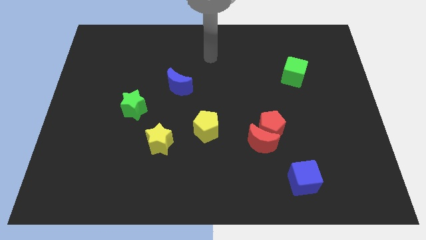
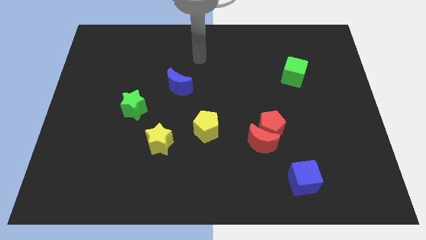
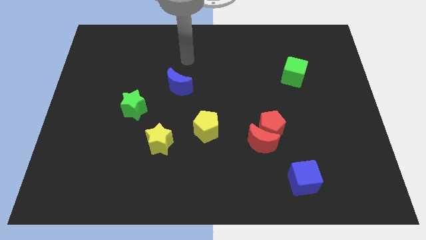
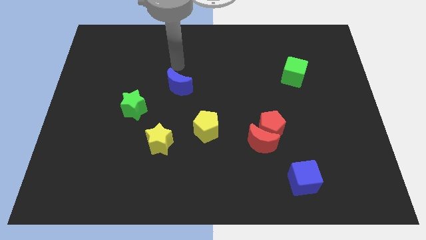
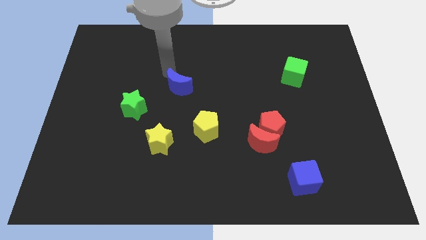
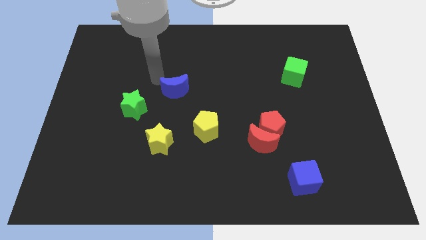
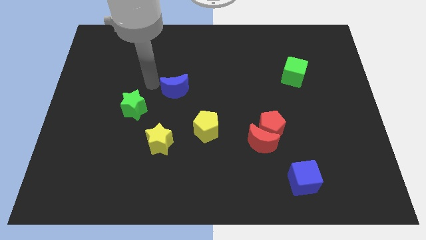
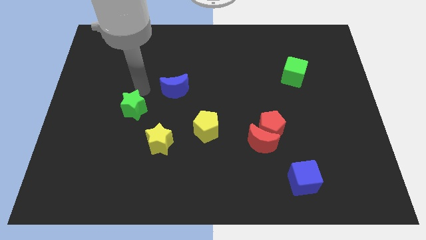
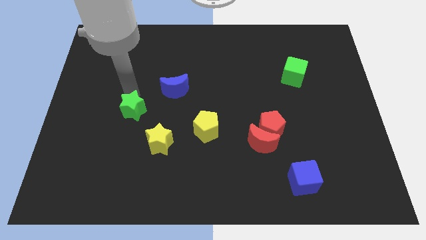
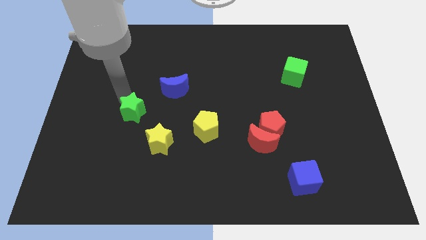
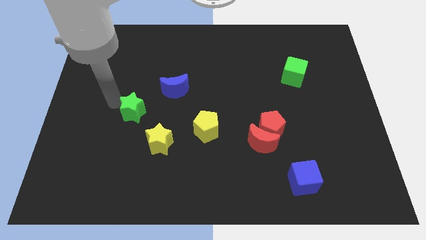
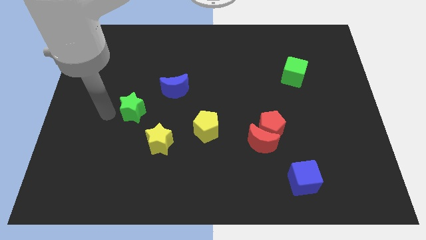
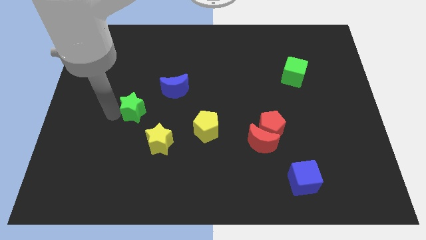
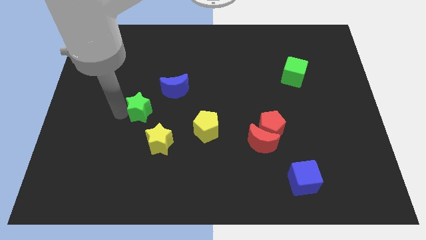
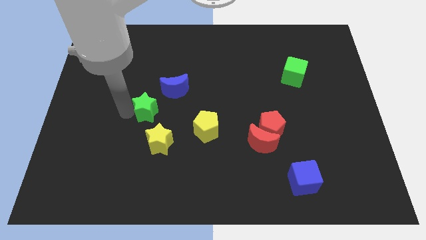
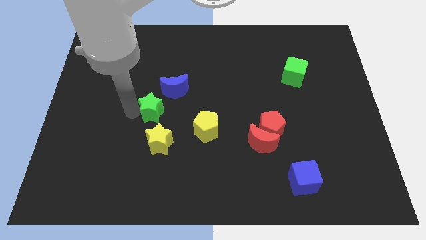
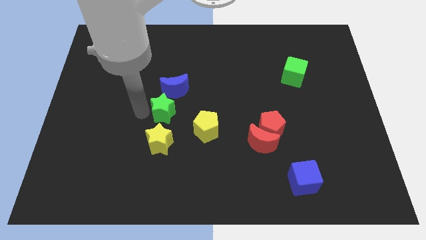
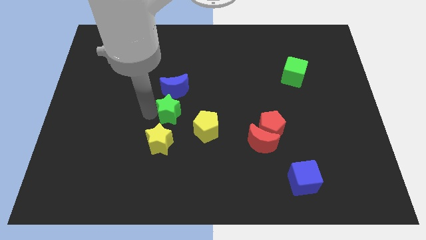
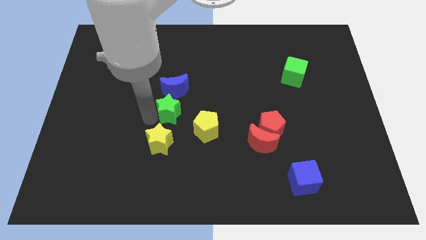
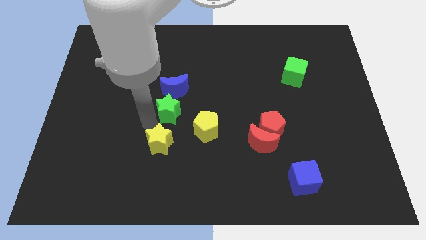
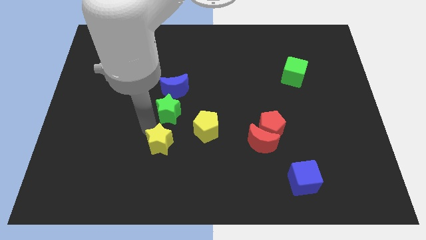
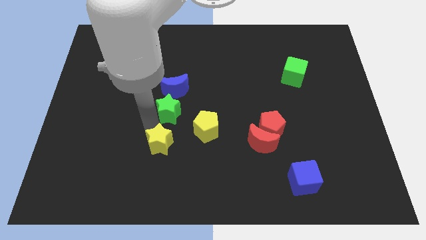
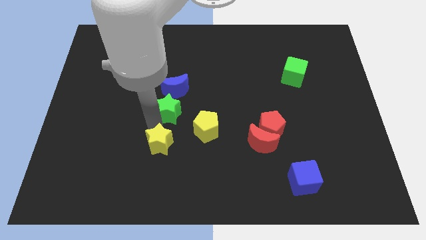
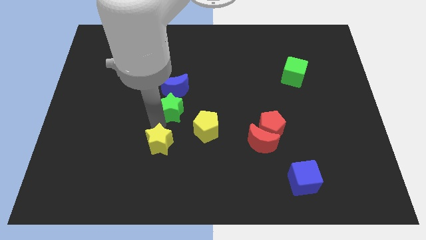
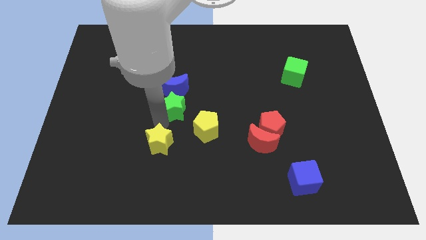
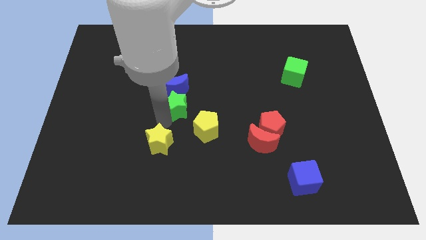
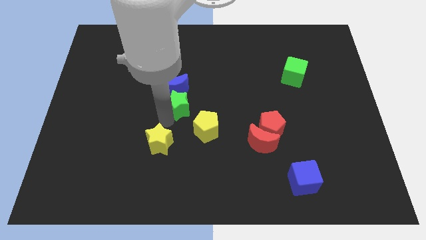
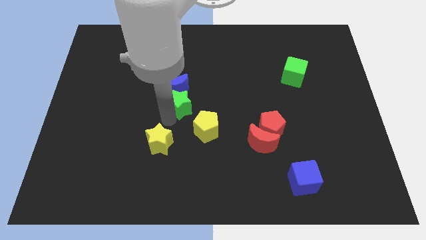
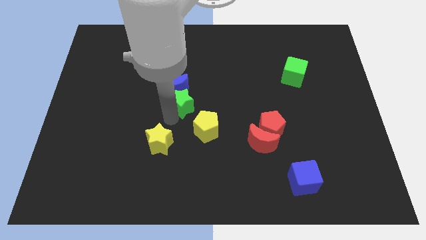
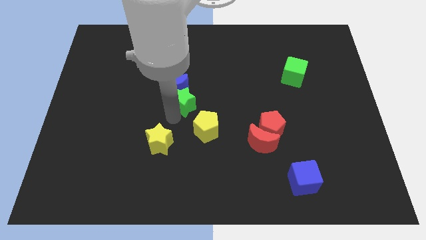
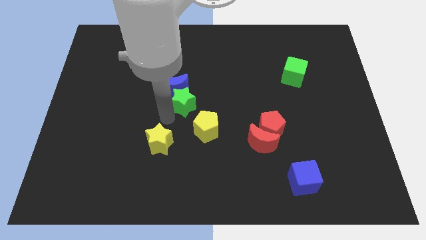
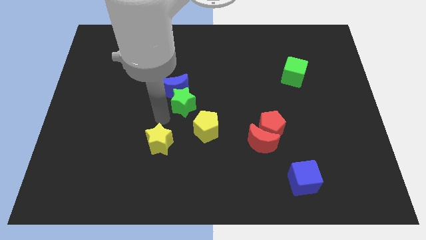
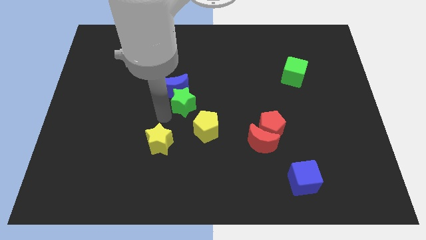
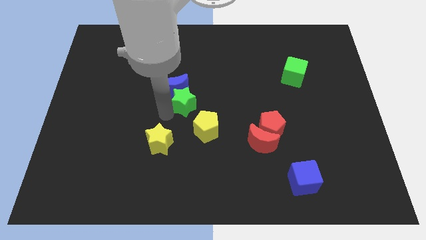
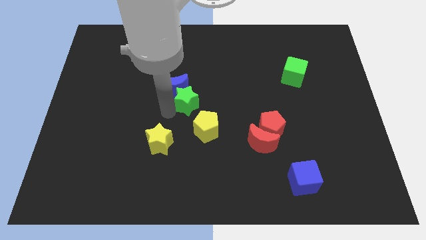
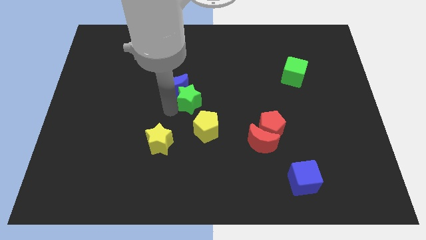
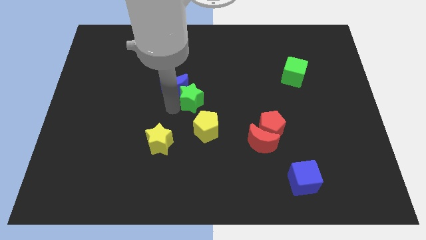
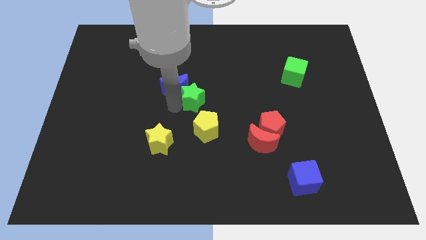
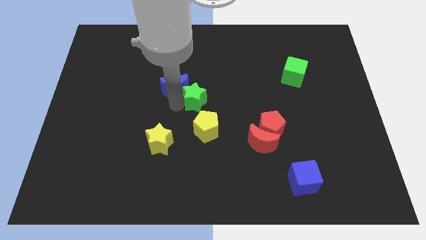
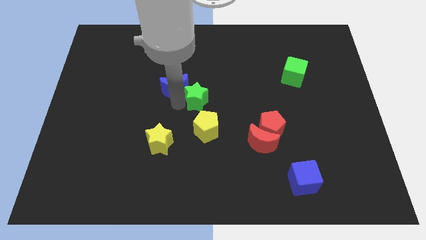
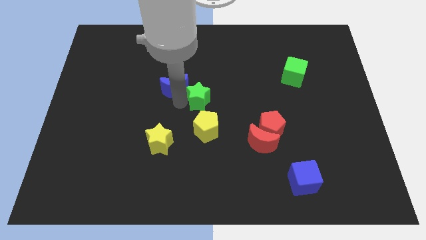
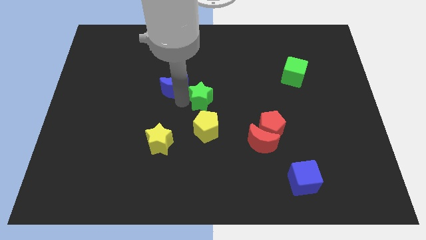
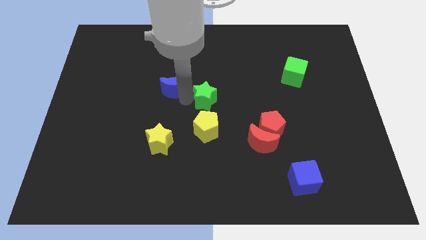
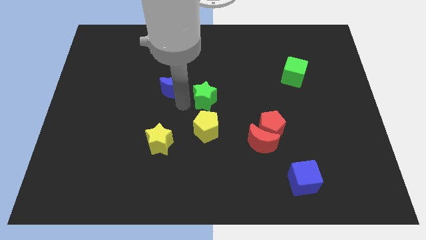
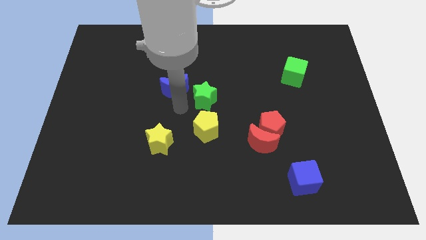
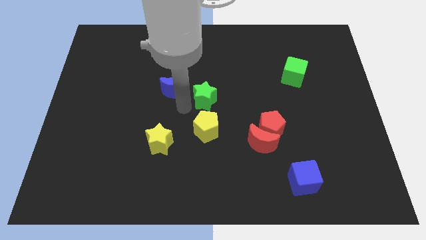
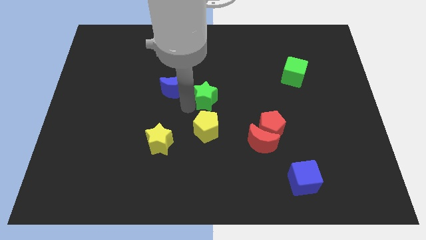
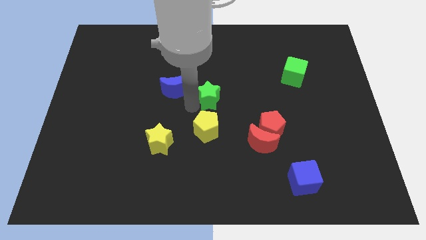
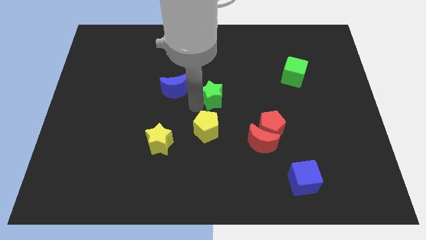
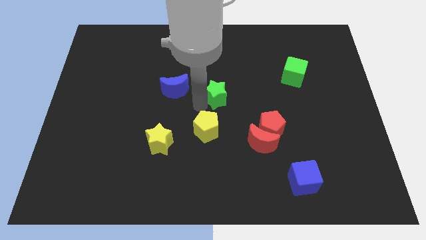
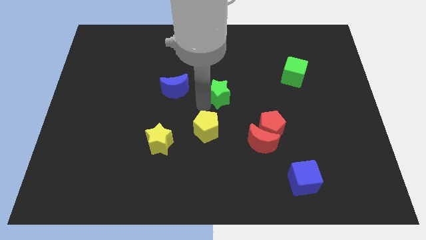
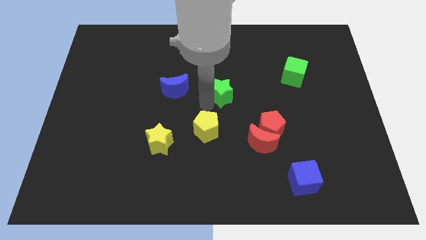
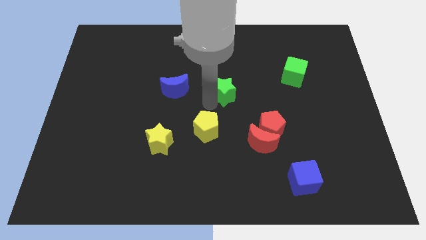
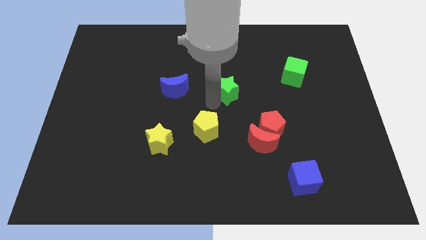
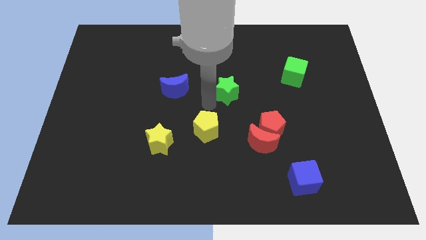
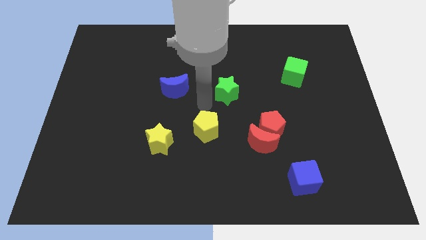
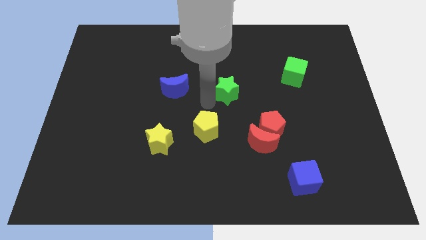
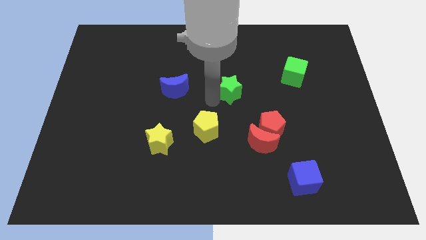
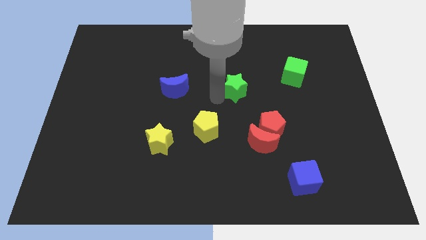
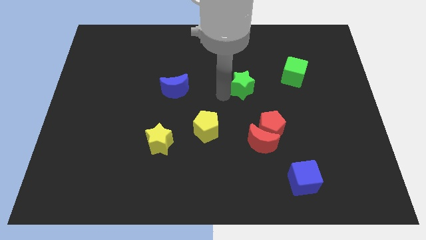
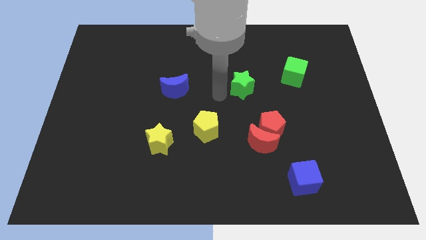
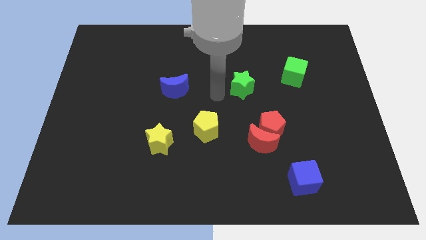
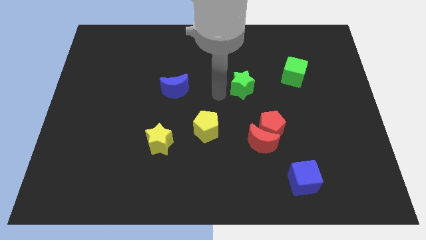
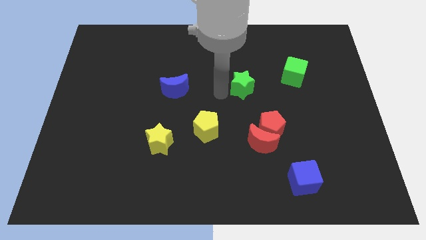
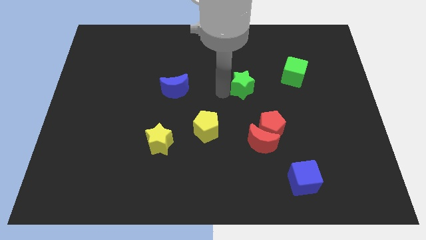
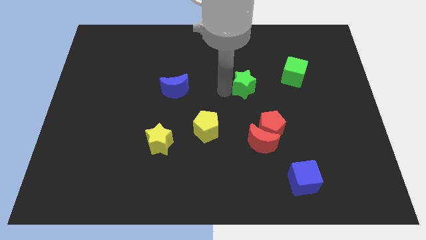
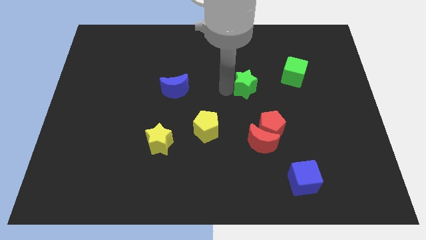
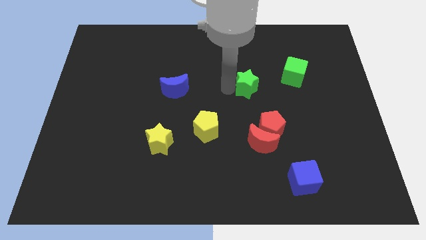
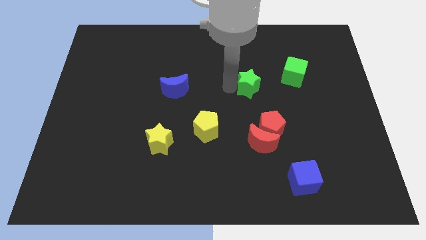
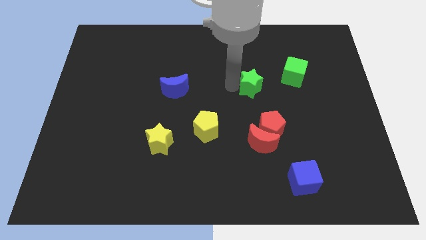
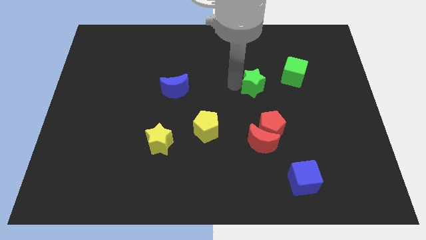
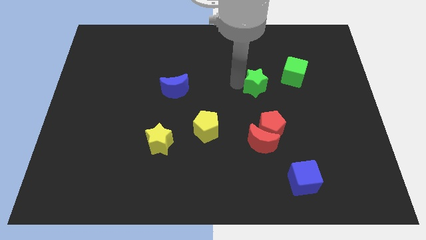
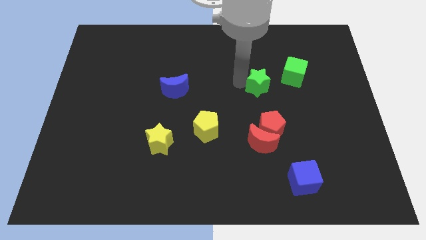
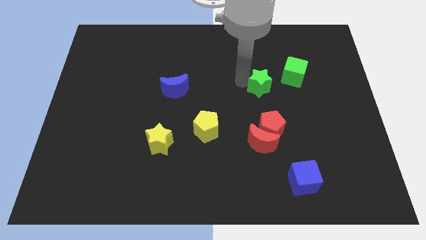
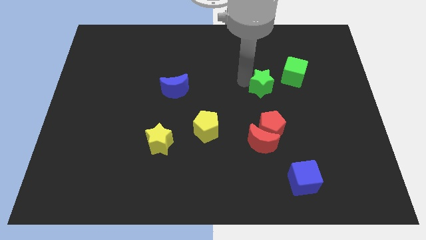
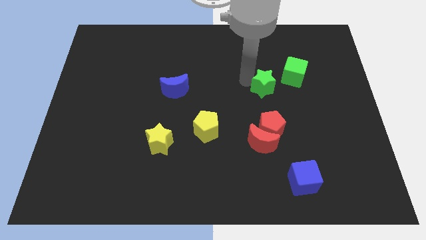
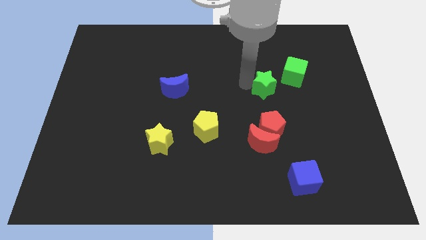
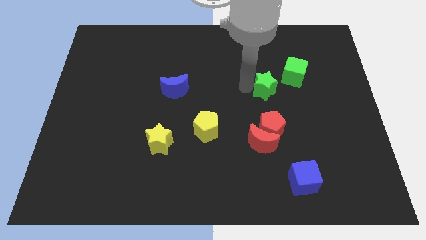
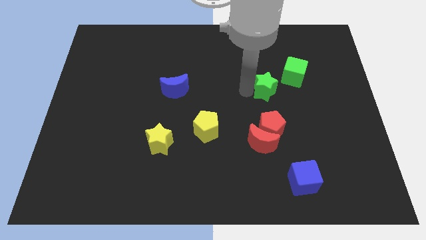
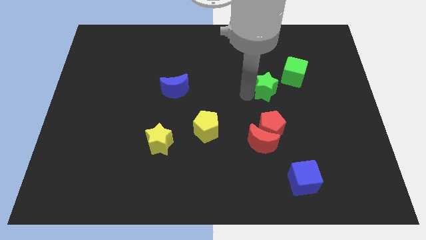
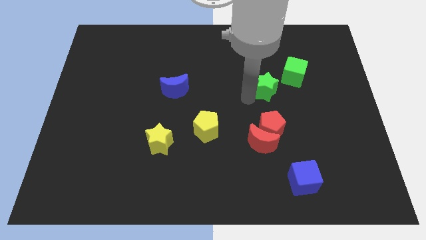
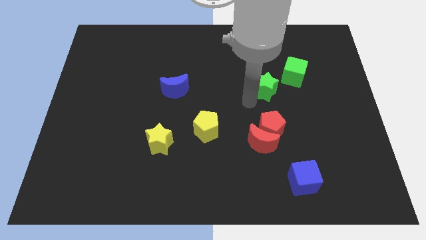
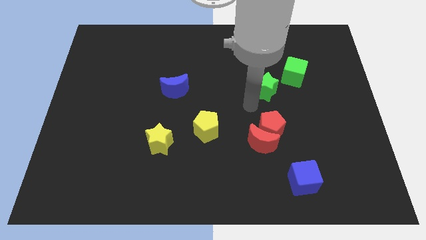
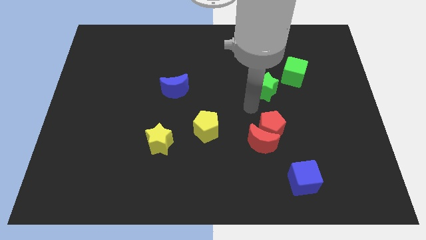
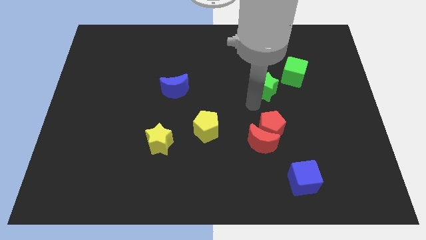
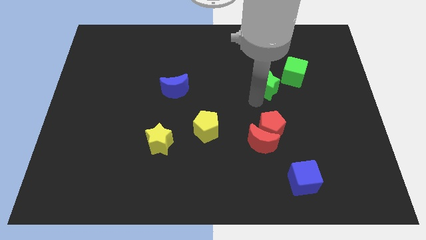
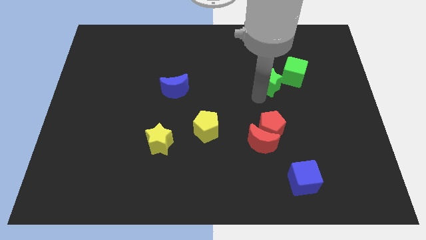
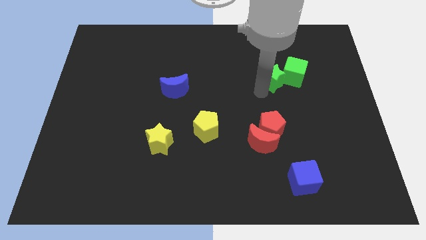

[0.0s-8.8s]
move the green star next to the green cube
